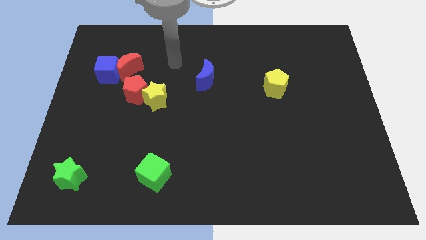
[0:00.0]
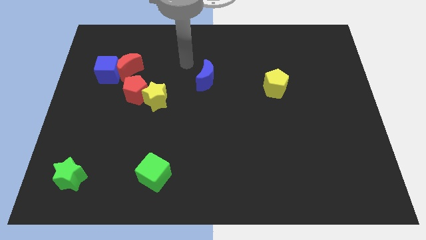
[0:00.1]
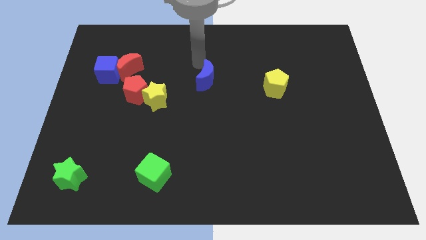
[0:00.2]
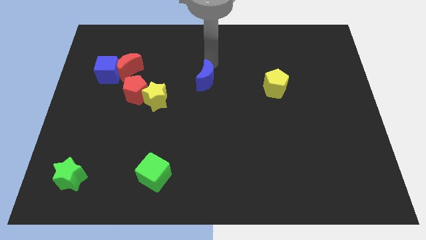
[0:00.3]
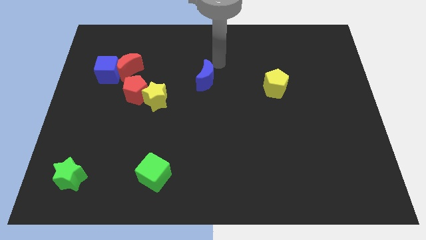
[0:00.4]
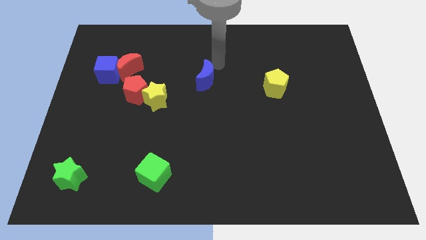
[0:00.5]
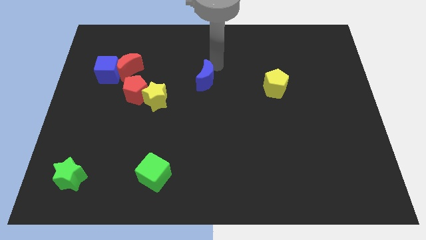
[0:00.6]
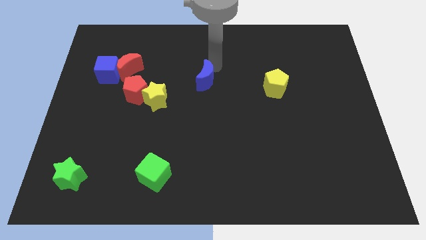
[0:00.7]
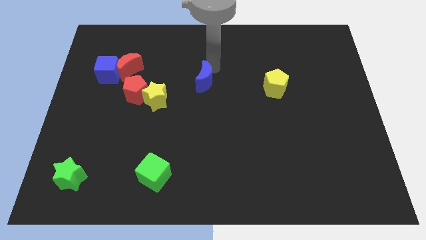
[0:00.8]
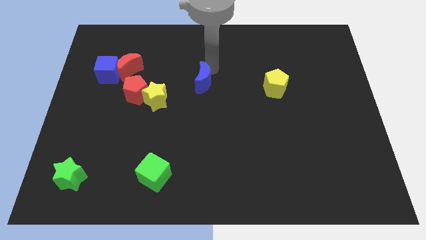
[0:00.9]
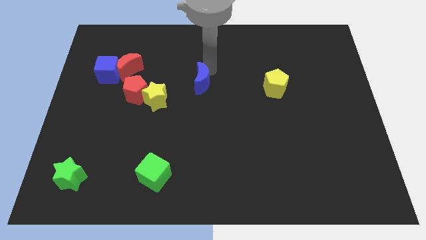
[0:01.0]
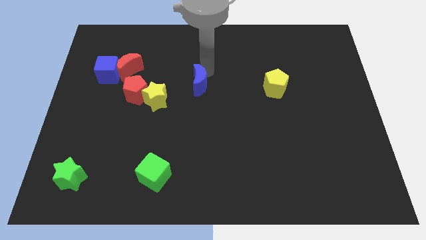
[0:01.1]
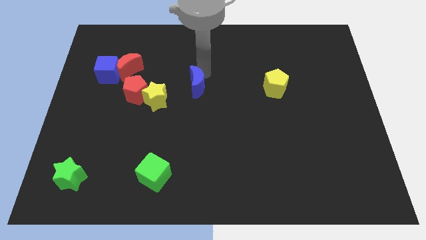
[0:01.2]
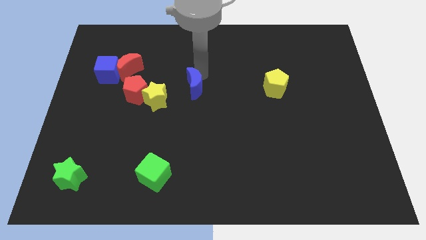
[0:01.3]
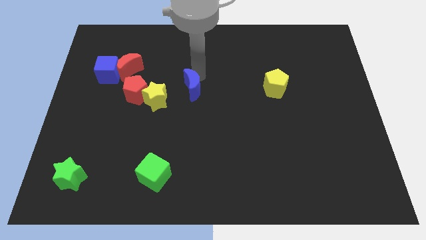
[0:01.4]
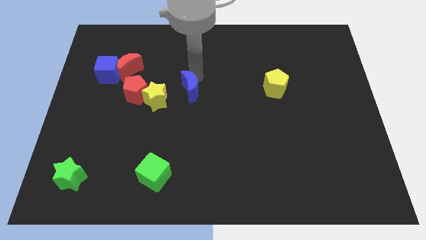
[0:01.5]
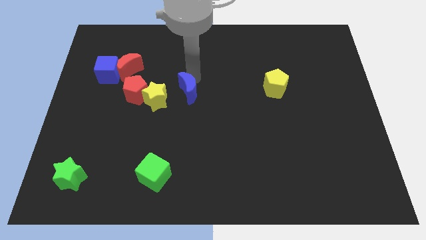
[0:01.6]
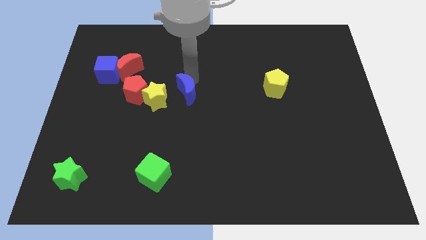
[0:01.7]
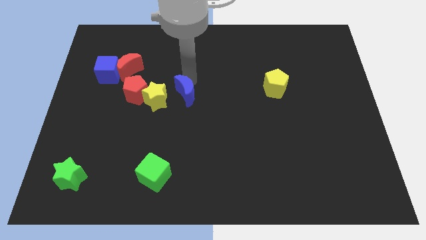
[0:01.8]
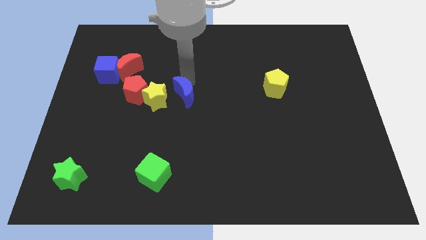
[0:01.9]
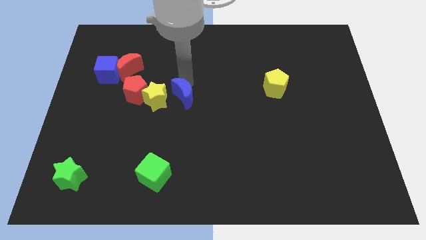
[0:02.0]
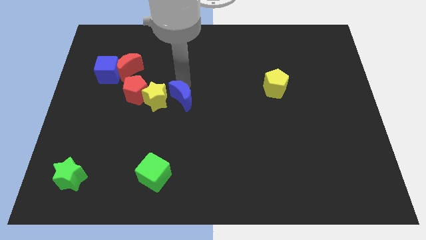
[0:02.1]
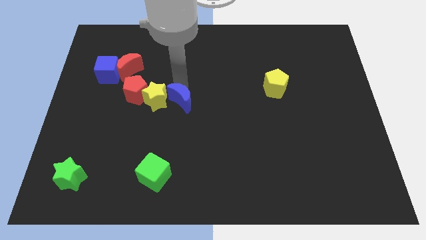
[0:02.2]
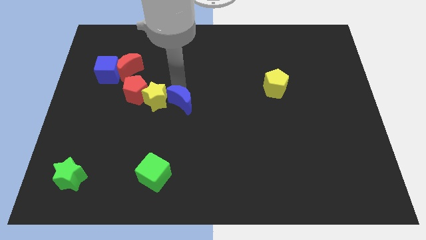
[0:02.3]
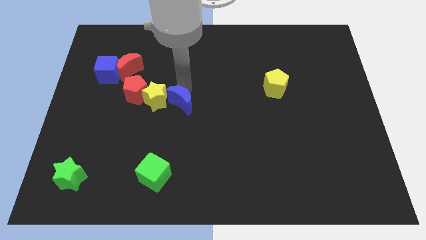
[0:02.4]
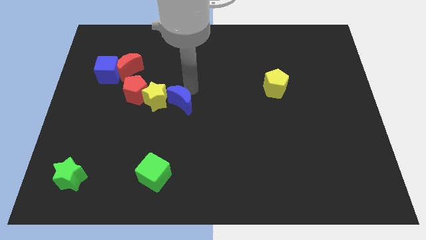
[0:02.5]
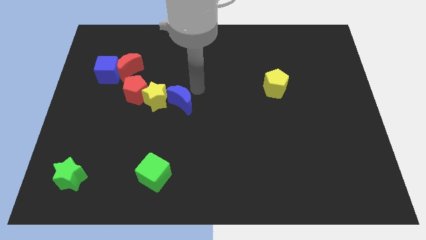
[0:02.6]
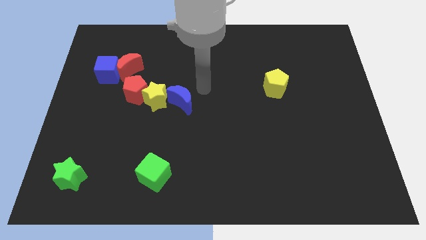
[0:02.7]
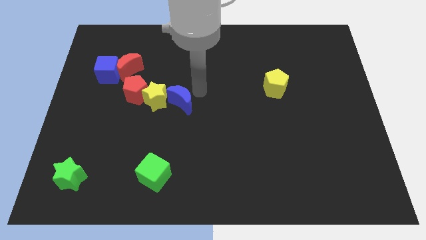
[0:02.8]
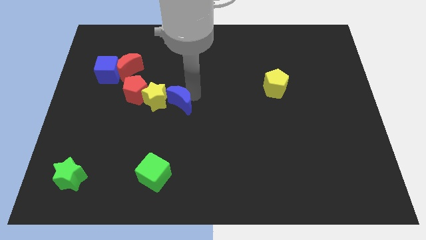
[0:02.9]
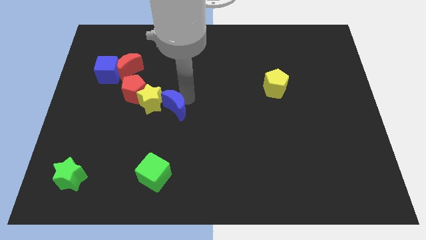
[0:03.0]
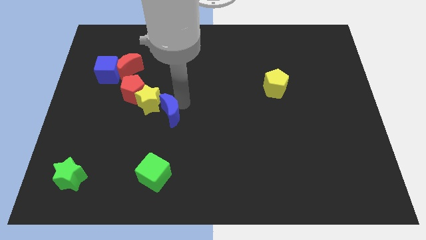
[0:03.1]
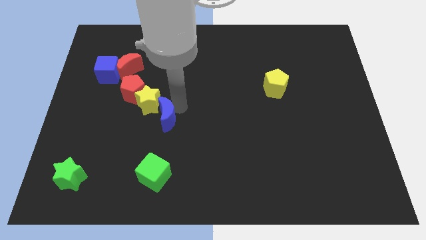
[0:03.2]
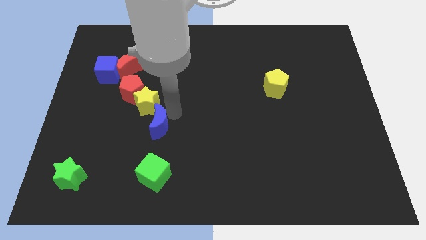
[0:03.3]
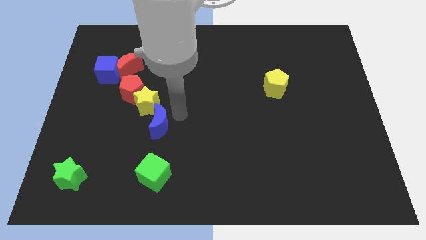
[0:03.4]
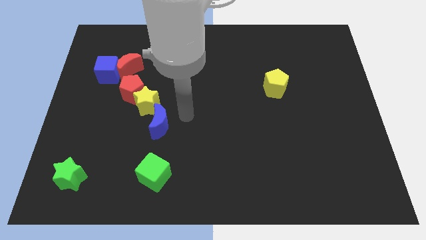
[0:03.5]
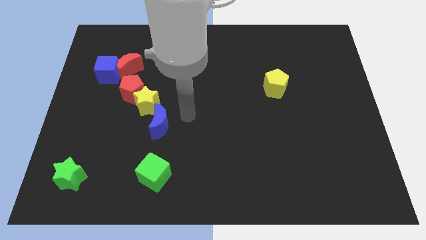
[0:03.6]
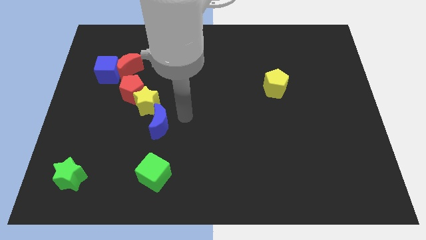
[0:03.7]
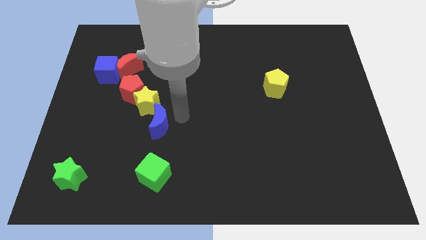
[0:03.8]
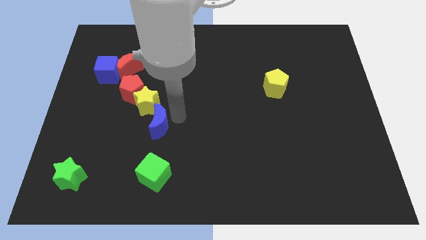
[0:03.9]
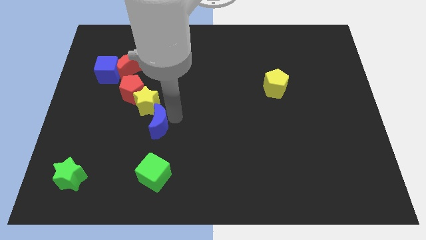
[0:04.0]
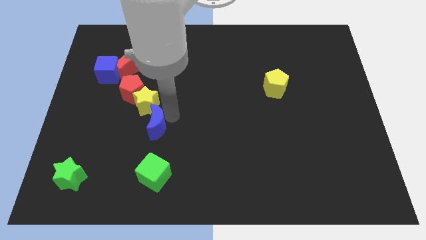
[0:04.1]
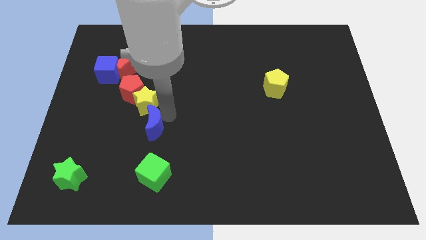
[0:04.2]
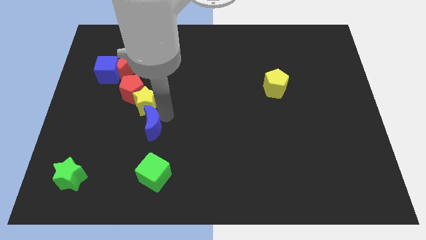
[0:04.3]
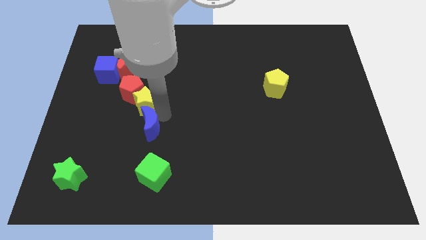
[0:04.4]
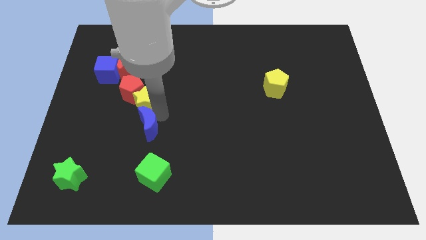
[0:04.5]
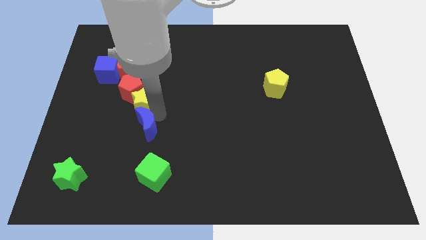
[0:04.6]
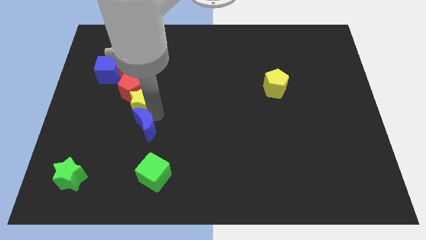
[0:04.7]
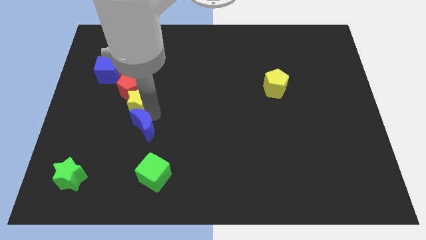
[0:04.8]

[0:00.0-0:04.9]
move the blue moon diagonally down and to the left

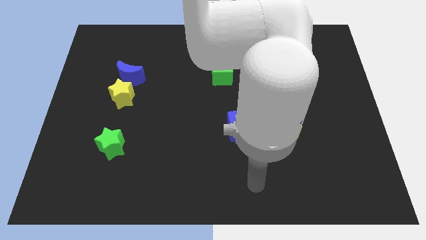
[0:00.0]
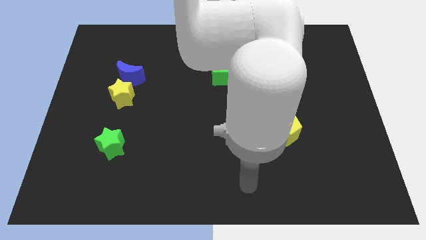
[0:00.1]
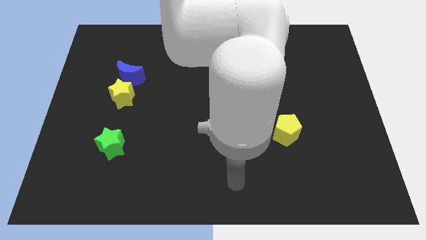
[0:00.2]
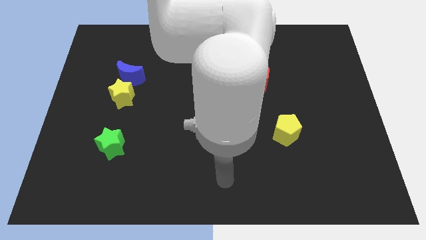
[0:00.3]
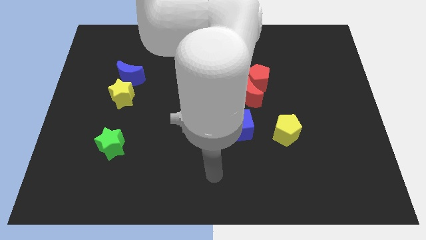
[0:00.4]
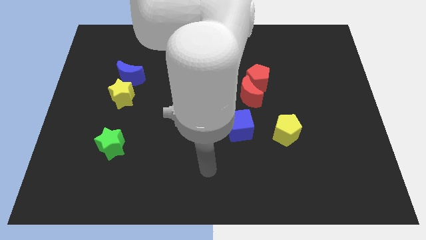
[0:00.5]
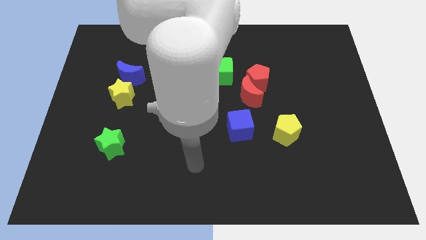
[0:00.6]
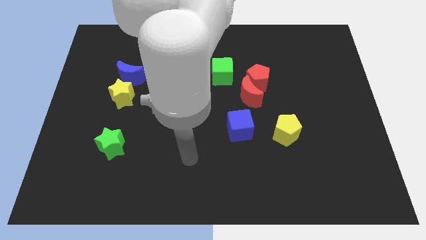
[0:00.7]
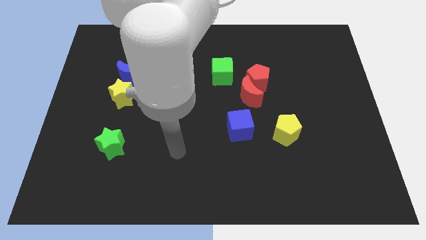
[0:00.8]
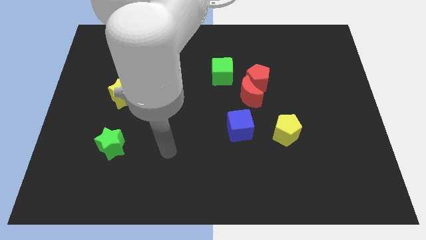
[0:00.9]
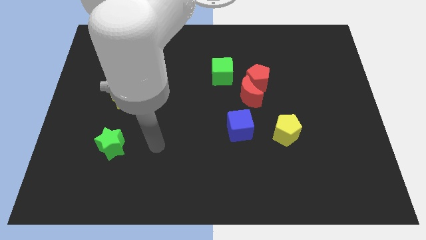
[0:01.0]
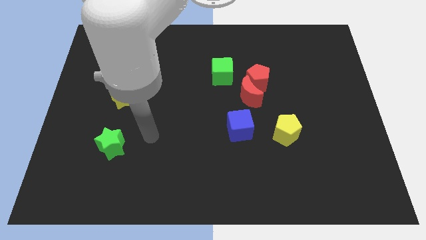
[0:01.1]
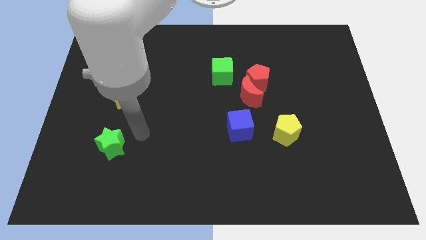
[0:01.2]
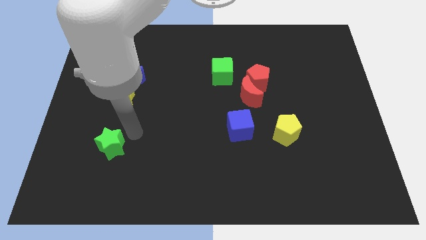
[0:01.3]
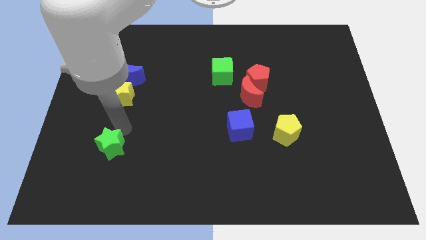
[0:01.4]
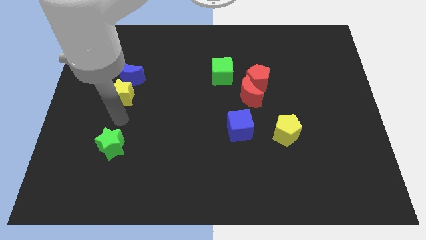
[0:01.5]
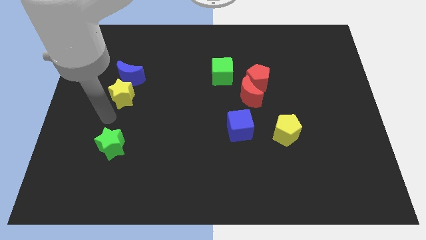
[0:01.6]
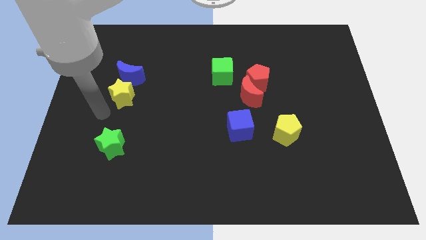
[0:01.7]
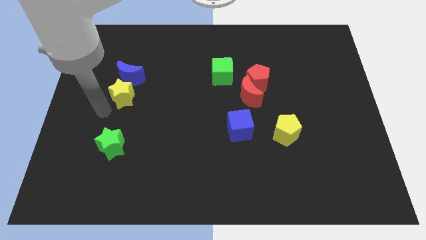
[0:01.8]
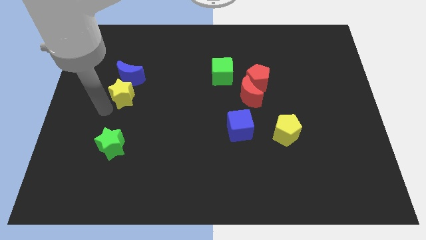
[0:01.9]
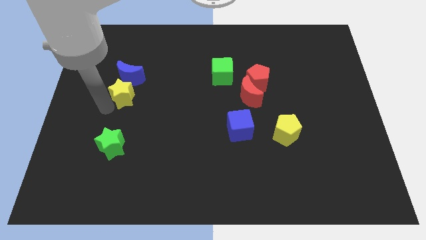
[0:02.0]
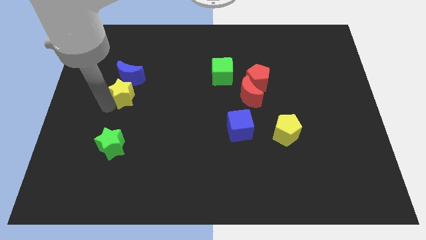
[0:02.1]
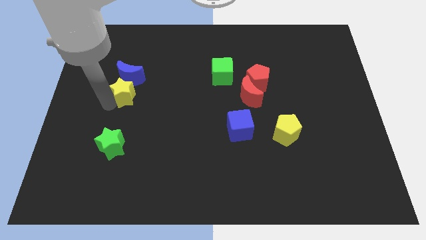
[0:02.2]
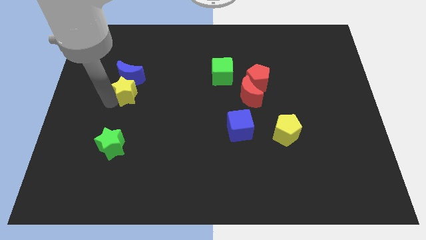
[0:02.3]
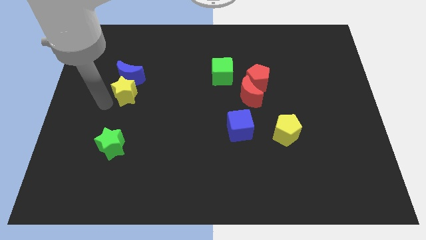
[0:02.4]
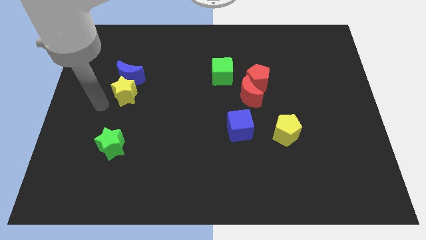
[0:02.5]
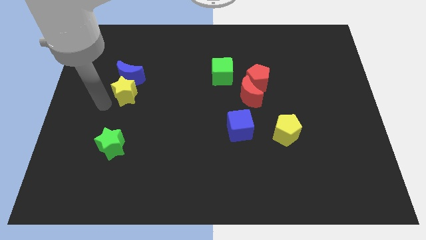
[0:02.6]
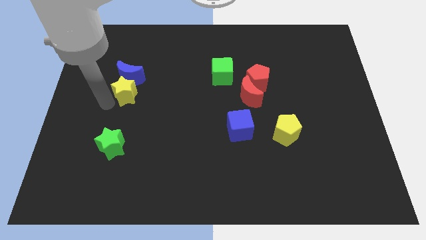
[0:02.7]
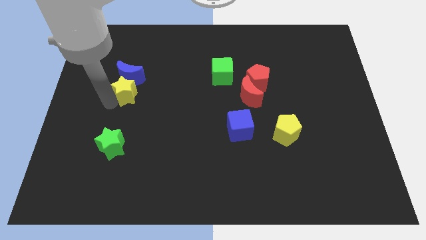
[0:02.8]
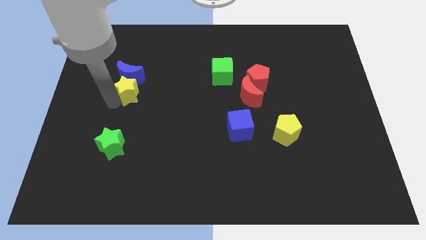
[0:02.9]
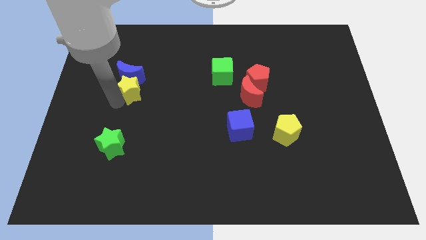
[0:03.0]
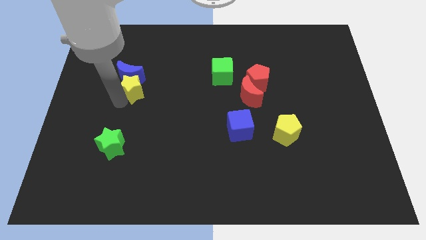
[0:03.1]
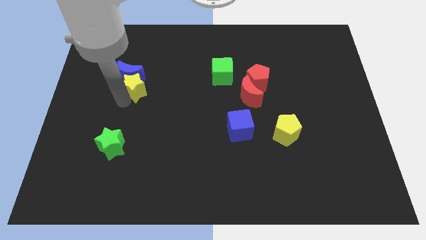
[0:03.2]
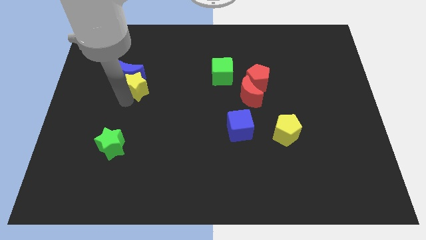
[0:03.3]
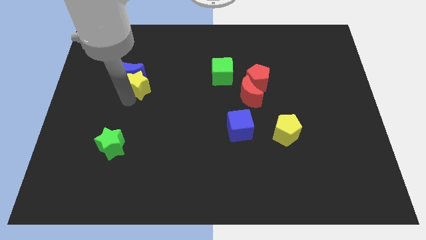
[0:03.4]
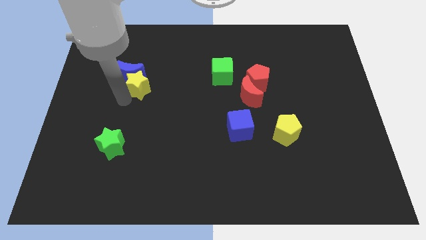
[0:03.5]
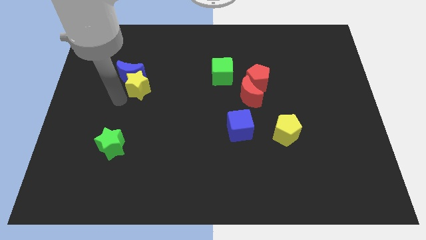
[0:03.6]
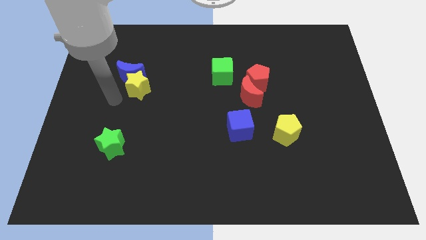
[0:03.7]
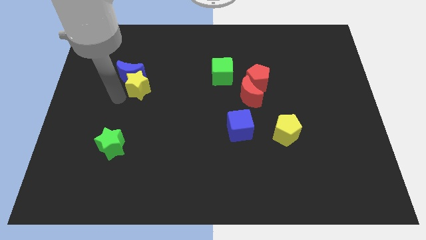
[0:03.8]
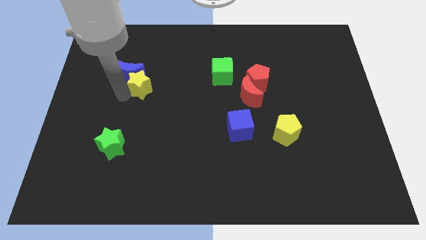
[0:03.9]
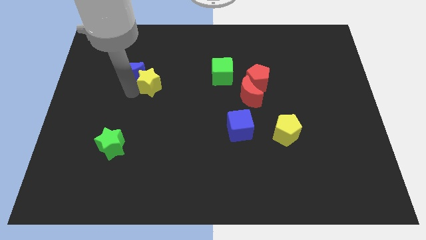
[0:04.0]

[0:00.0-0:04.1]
push the yellow star upwards and to the right diagonally somewhat
